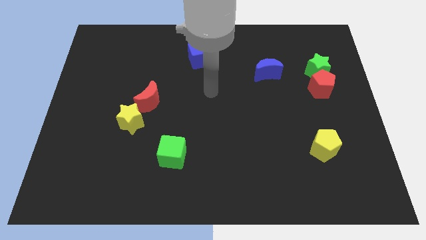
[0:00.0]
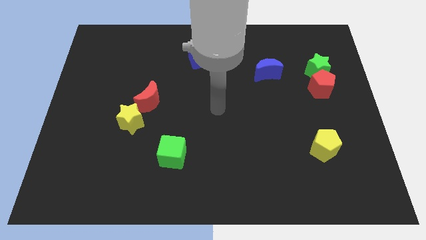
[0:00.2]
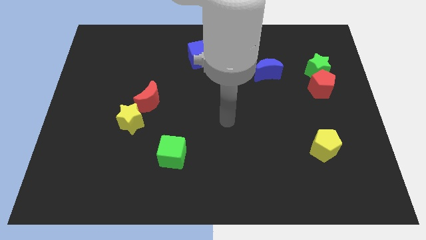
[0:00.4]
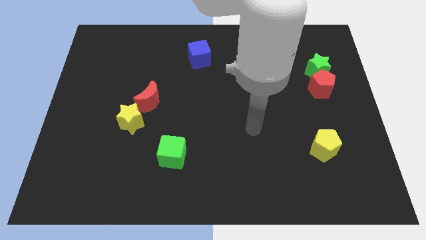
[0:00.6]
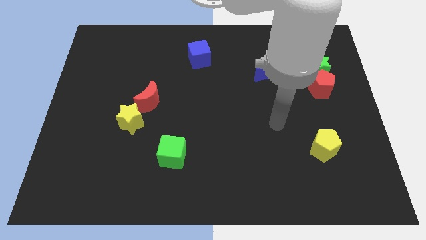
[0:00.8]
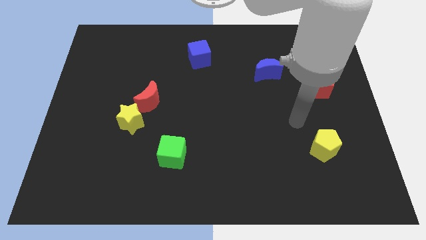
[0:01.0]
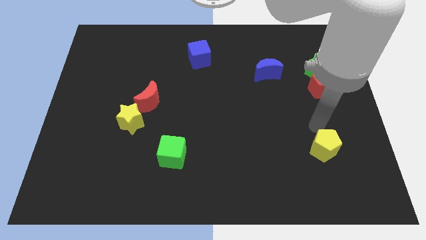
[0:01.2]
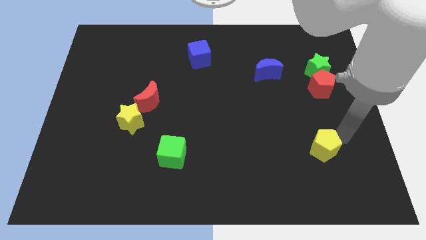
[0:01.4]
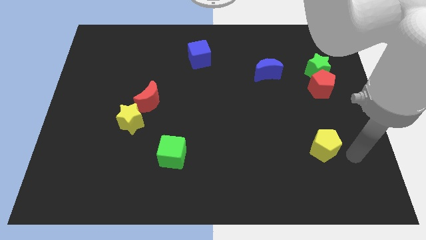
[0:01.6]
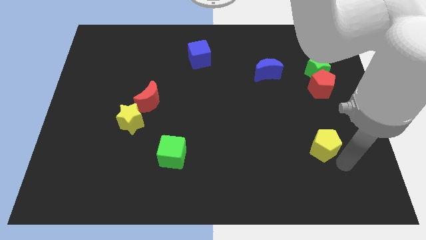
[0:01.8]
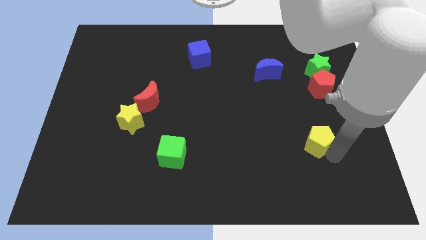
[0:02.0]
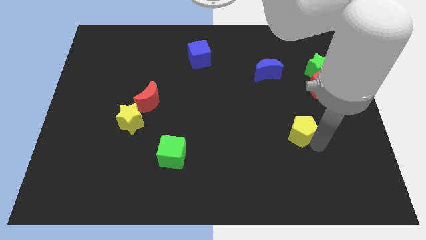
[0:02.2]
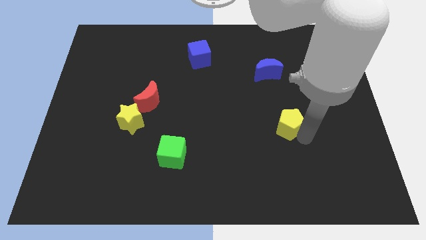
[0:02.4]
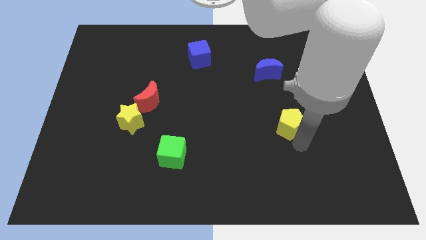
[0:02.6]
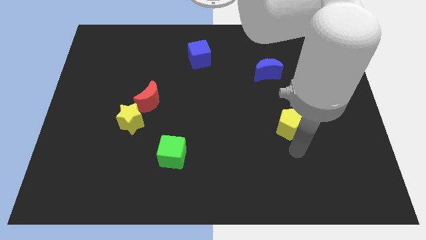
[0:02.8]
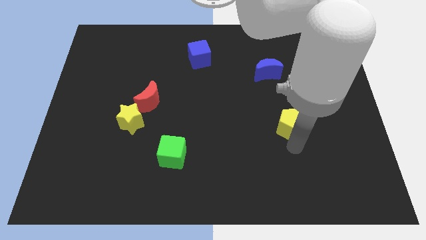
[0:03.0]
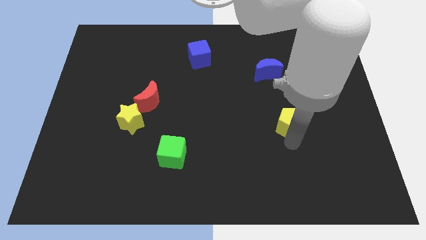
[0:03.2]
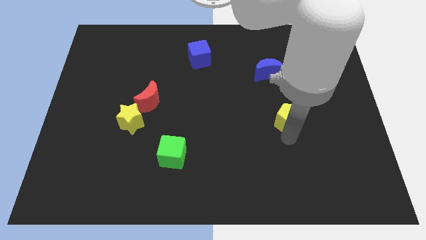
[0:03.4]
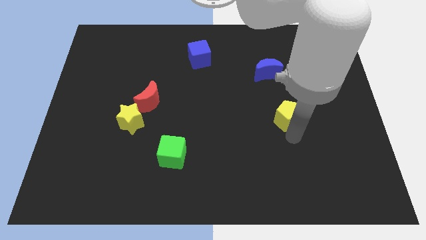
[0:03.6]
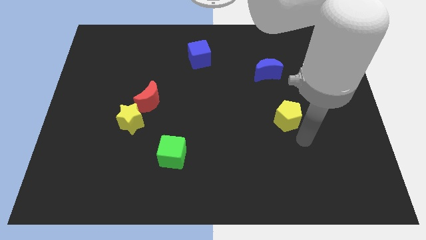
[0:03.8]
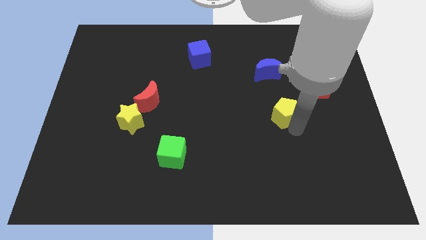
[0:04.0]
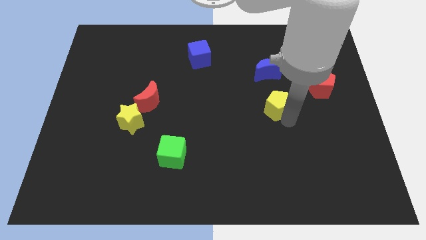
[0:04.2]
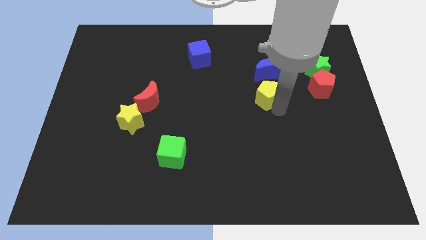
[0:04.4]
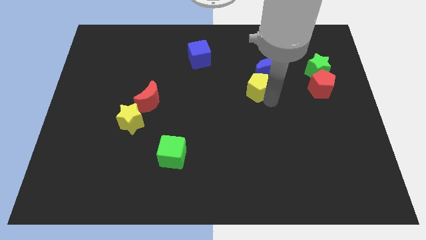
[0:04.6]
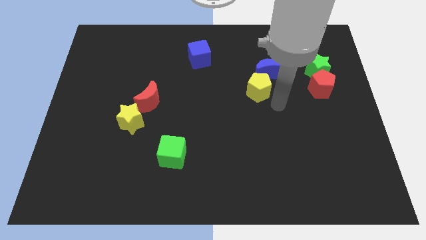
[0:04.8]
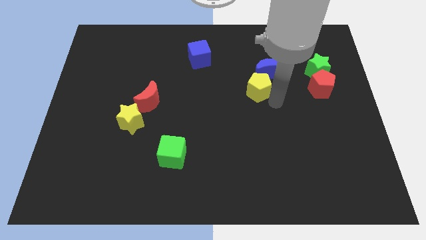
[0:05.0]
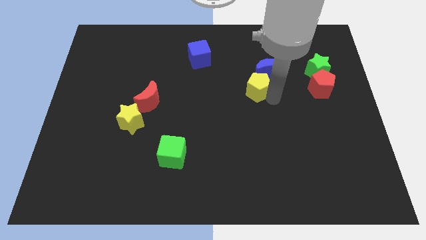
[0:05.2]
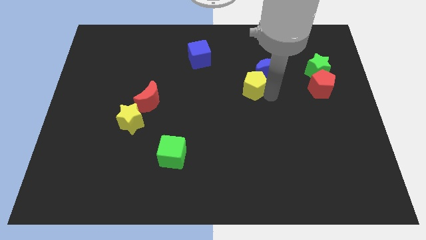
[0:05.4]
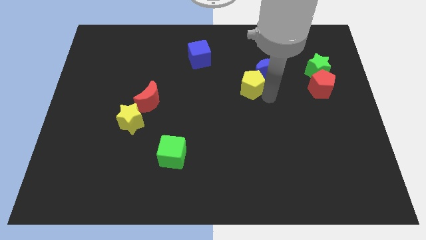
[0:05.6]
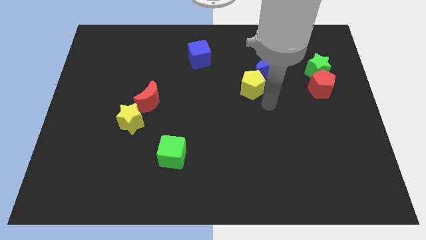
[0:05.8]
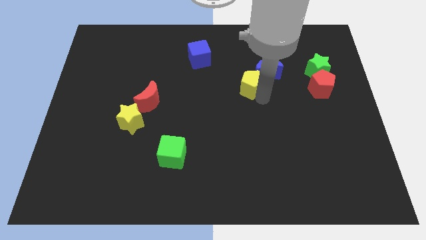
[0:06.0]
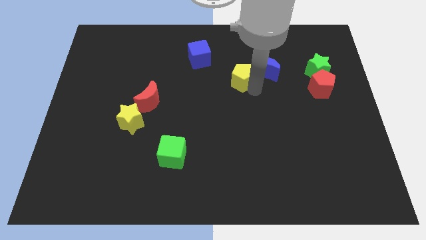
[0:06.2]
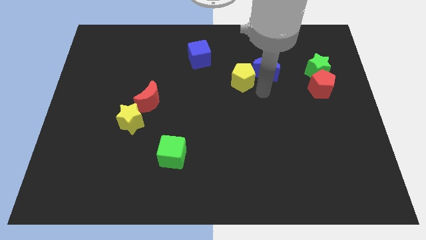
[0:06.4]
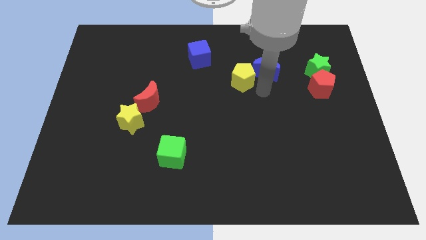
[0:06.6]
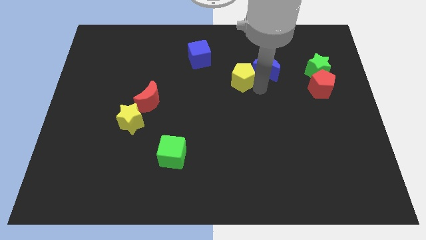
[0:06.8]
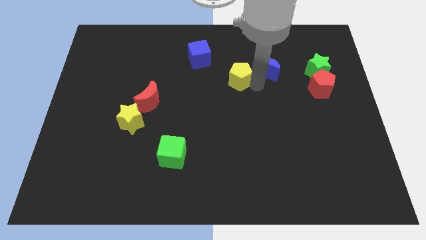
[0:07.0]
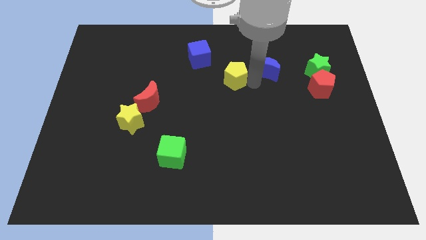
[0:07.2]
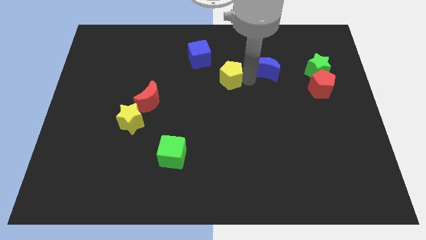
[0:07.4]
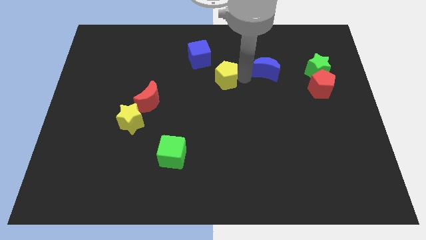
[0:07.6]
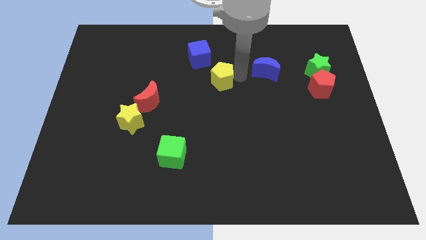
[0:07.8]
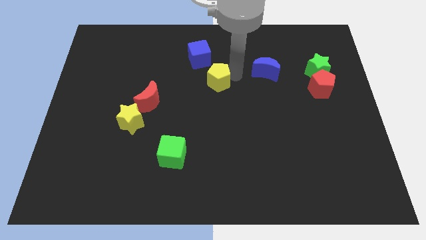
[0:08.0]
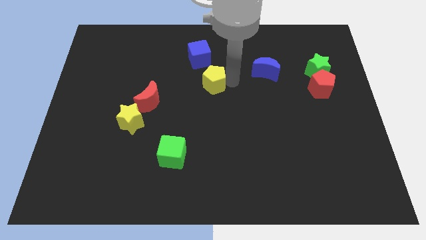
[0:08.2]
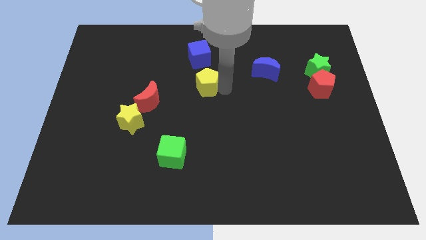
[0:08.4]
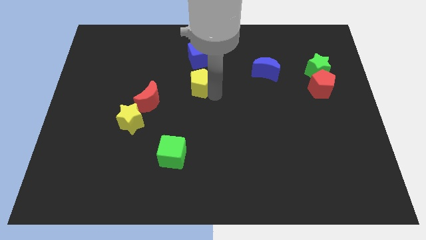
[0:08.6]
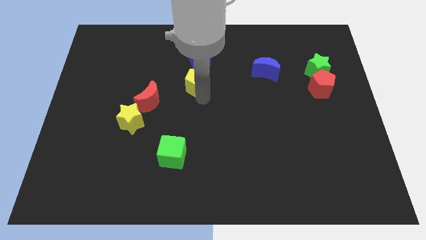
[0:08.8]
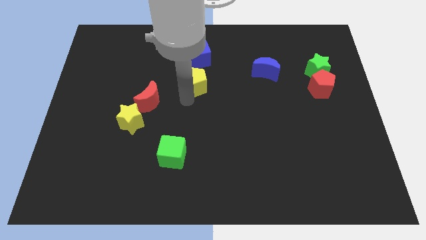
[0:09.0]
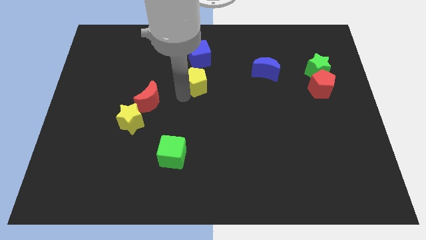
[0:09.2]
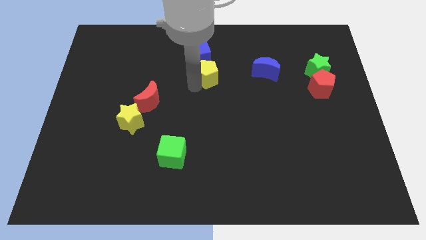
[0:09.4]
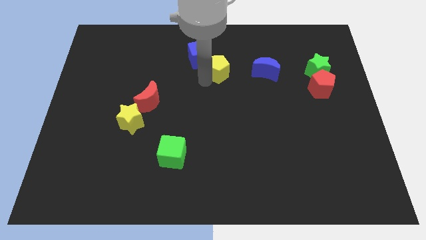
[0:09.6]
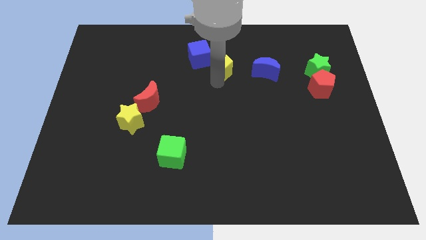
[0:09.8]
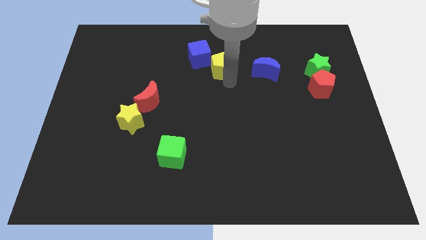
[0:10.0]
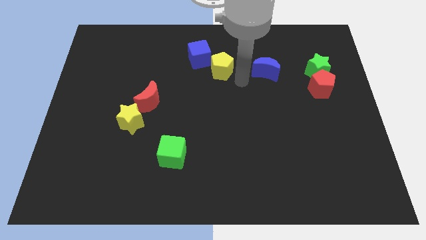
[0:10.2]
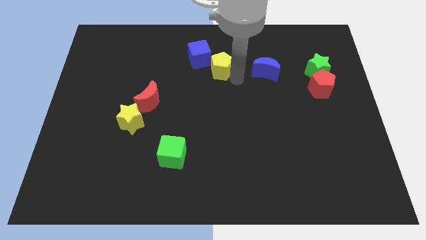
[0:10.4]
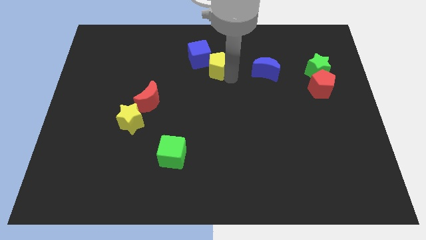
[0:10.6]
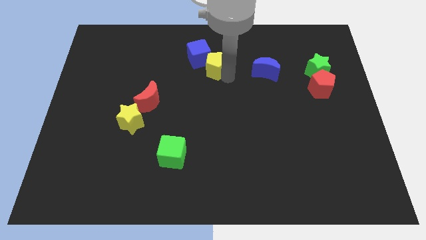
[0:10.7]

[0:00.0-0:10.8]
move the yellow pentagon next to the blue cube

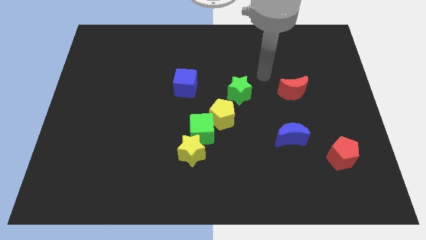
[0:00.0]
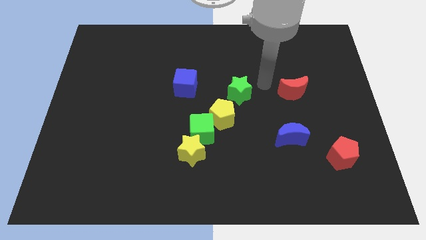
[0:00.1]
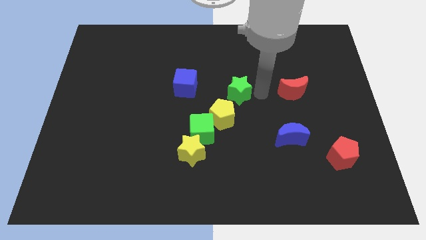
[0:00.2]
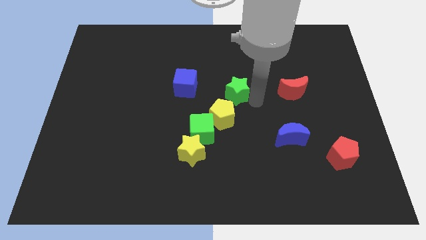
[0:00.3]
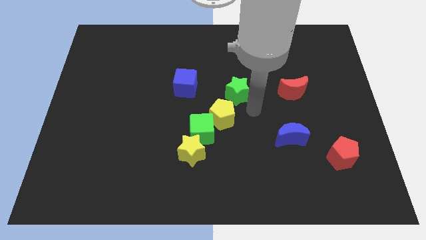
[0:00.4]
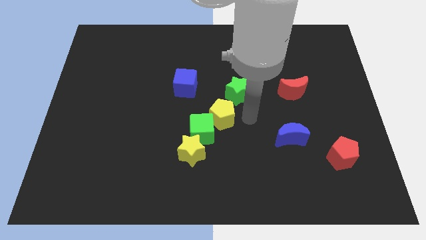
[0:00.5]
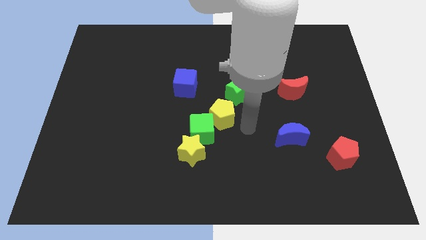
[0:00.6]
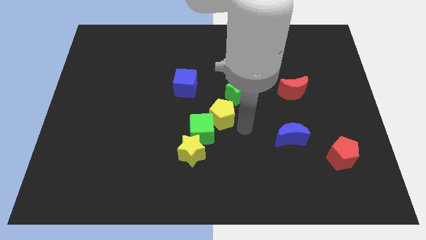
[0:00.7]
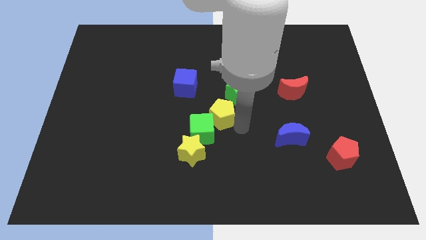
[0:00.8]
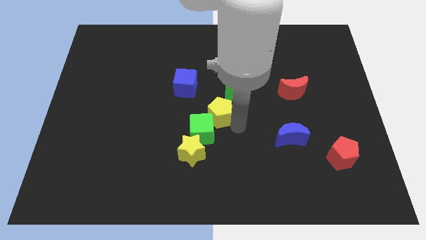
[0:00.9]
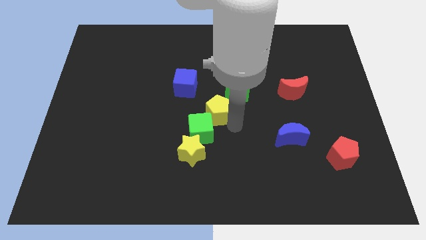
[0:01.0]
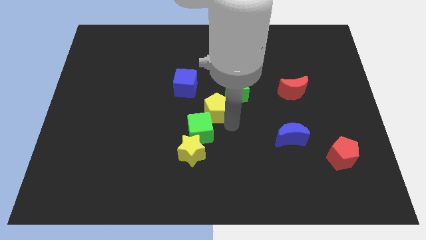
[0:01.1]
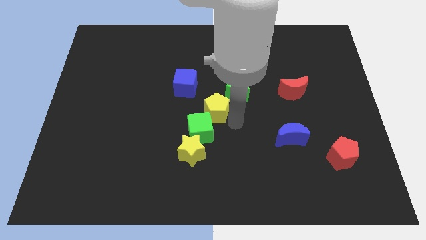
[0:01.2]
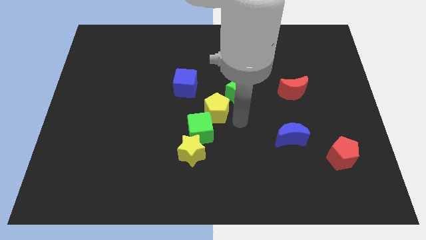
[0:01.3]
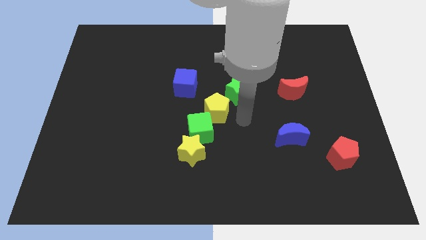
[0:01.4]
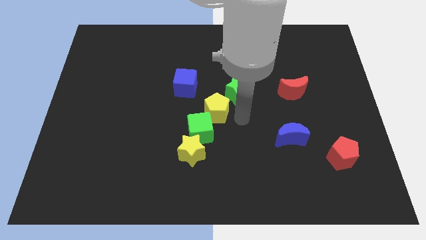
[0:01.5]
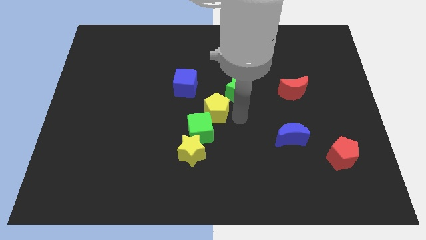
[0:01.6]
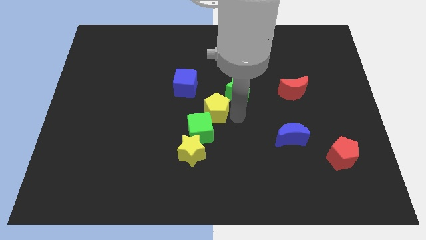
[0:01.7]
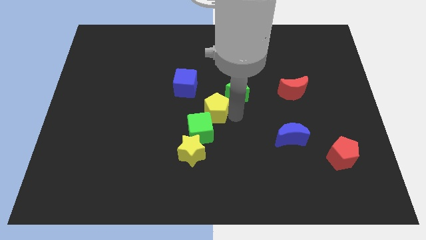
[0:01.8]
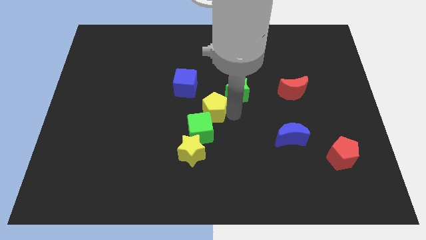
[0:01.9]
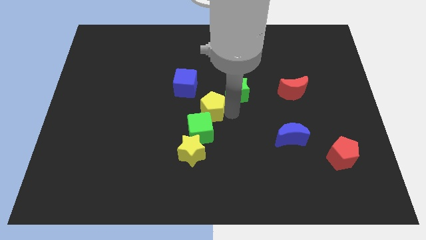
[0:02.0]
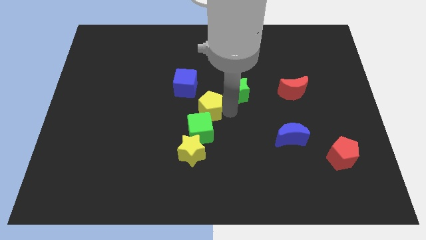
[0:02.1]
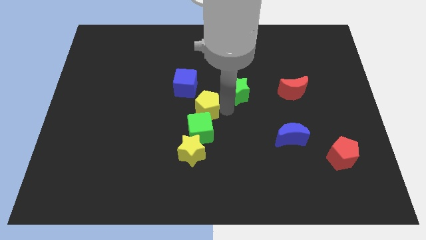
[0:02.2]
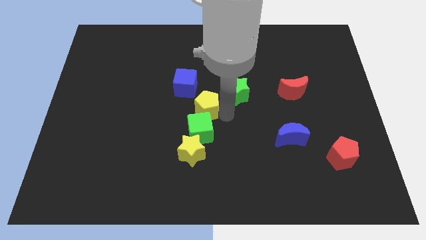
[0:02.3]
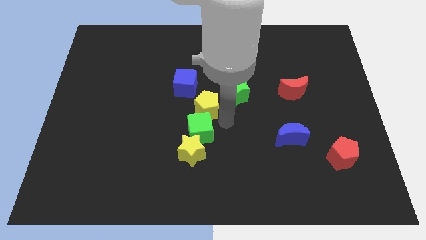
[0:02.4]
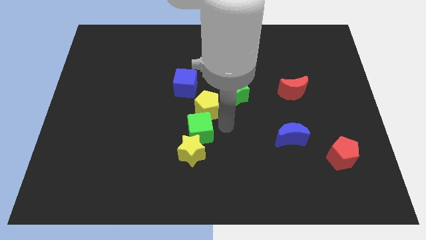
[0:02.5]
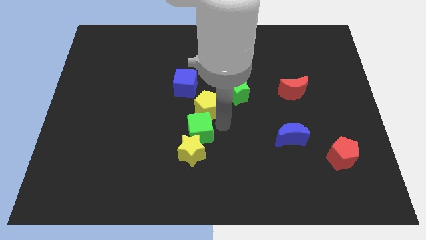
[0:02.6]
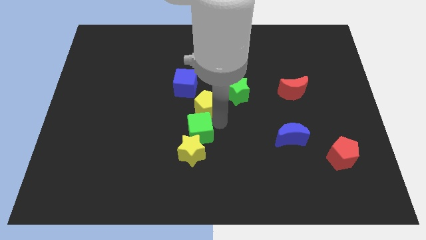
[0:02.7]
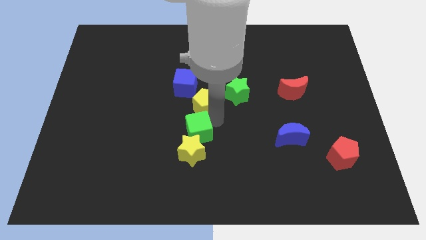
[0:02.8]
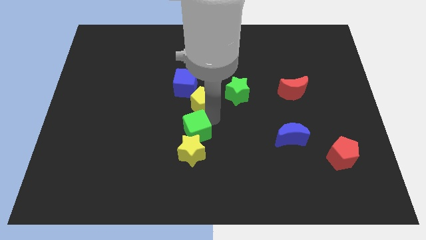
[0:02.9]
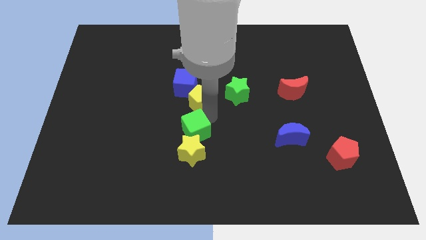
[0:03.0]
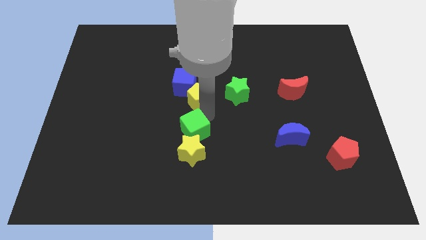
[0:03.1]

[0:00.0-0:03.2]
put the yellow pentagon to the blue cube
